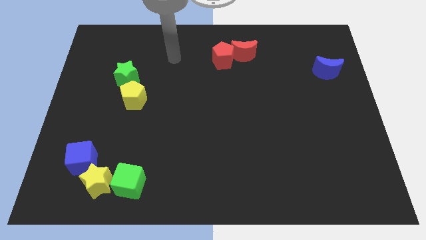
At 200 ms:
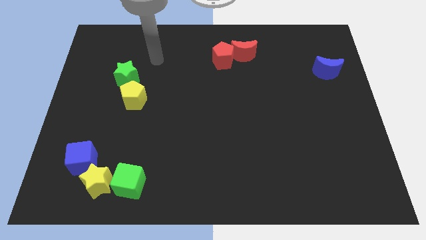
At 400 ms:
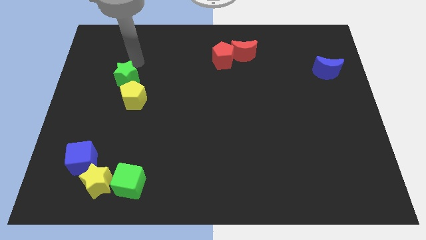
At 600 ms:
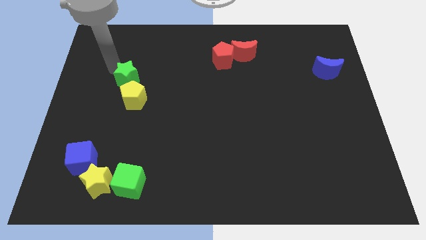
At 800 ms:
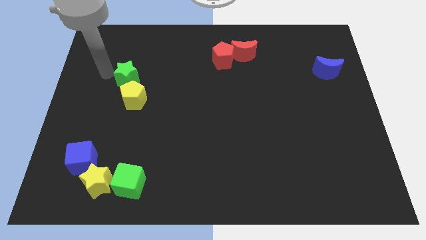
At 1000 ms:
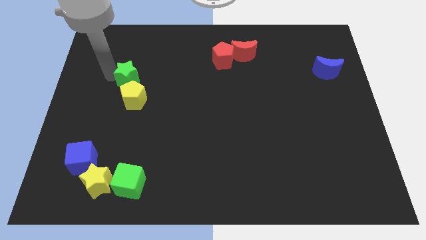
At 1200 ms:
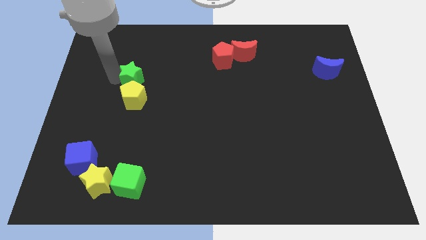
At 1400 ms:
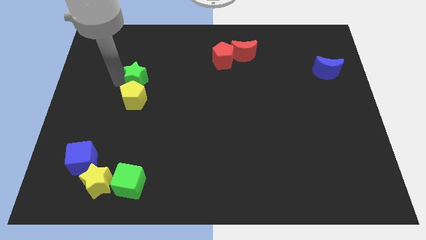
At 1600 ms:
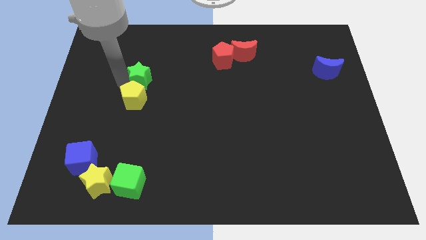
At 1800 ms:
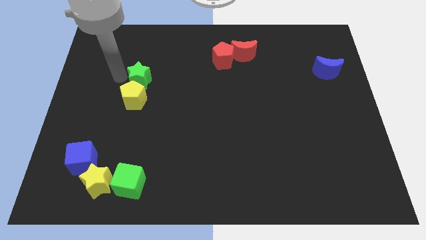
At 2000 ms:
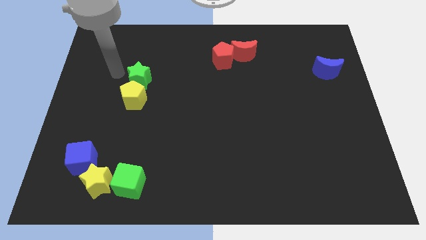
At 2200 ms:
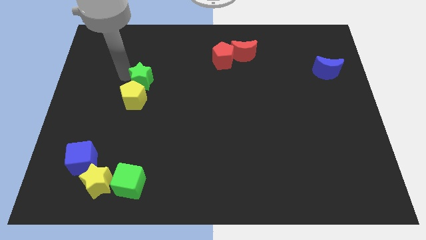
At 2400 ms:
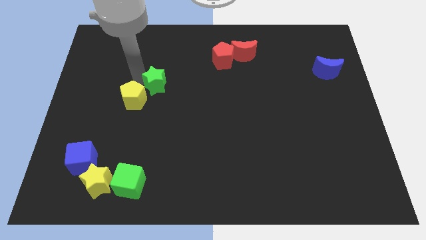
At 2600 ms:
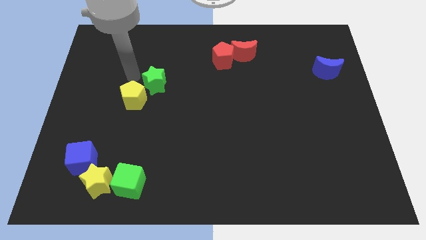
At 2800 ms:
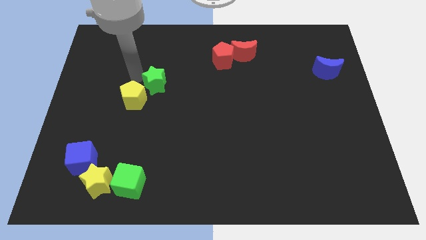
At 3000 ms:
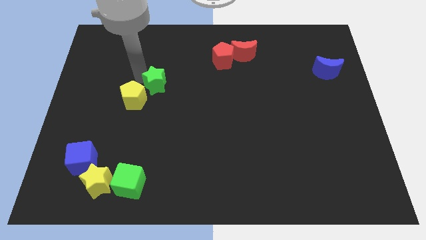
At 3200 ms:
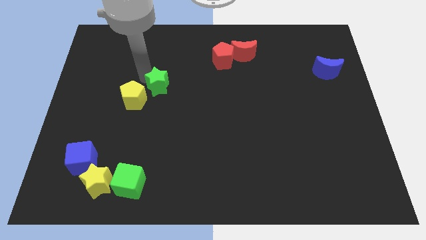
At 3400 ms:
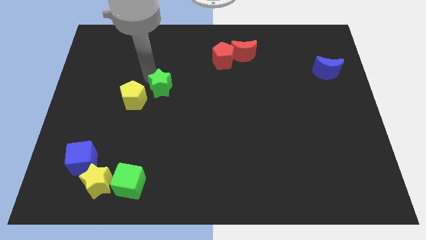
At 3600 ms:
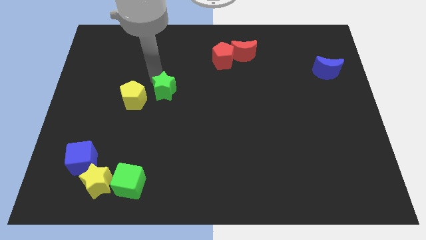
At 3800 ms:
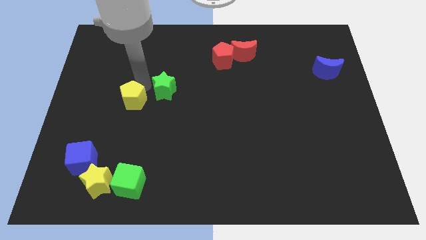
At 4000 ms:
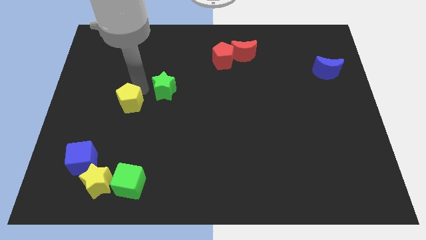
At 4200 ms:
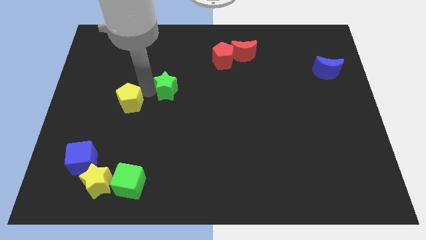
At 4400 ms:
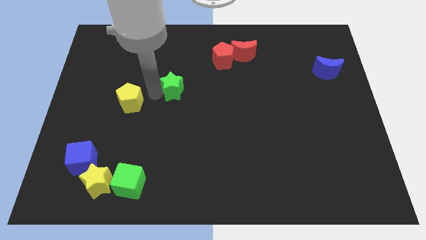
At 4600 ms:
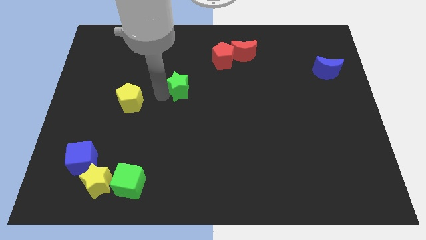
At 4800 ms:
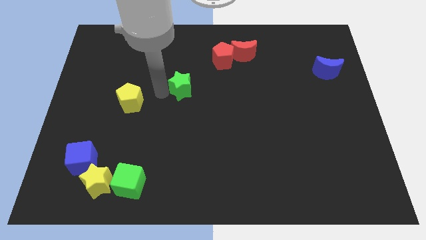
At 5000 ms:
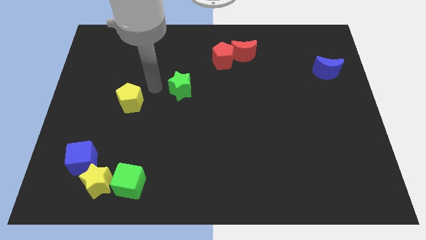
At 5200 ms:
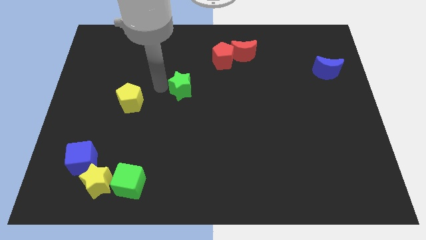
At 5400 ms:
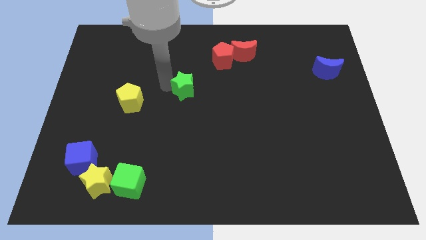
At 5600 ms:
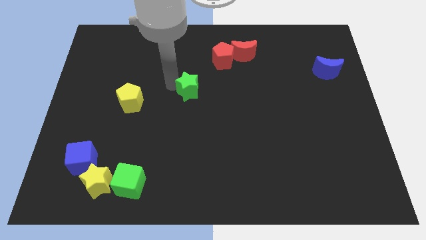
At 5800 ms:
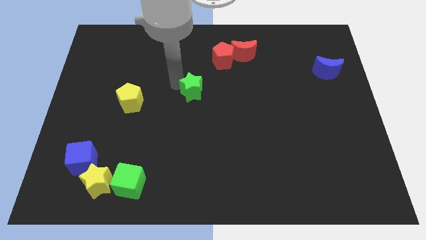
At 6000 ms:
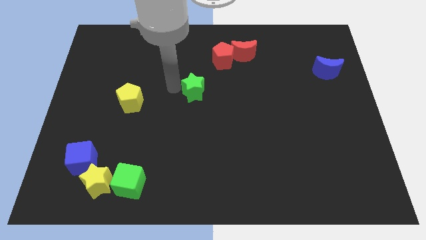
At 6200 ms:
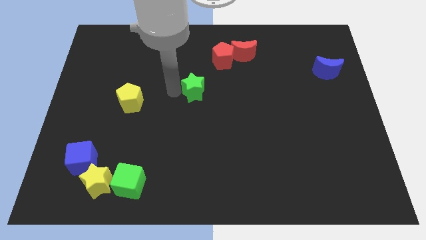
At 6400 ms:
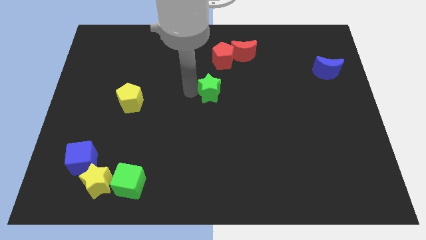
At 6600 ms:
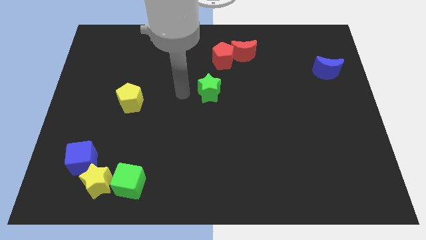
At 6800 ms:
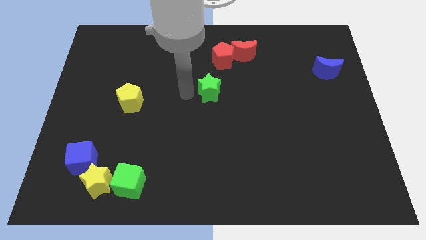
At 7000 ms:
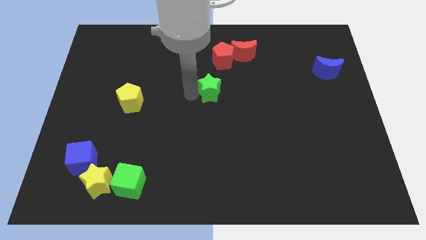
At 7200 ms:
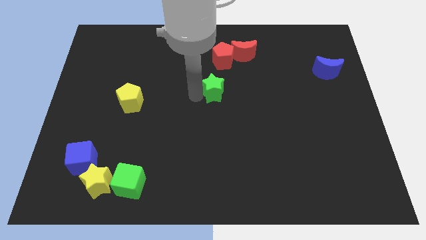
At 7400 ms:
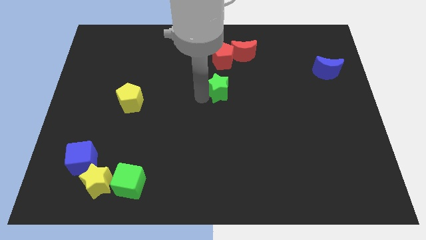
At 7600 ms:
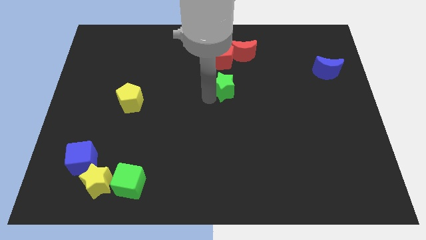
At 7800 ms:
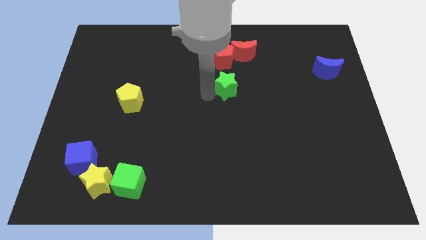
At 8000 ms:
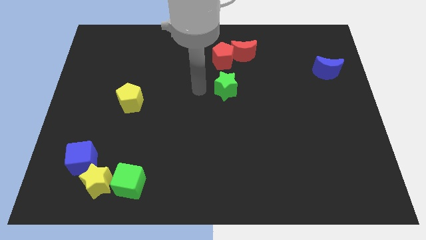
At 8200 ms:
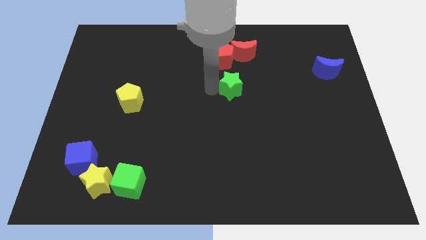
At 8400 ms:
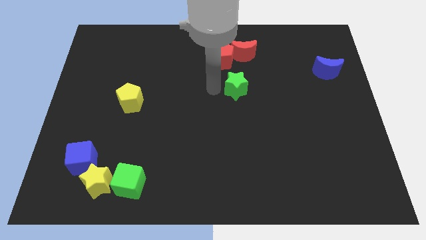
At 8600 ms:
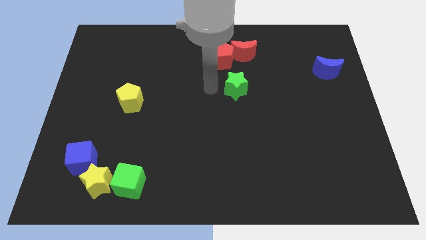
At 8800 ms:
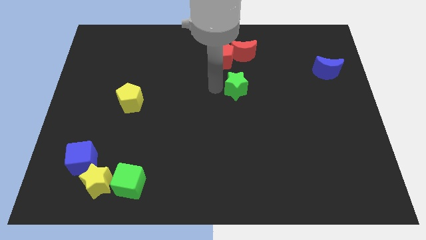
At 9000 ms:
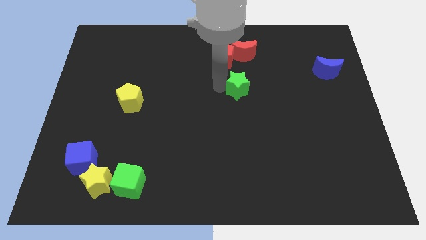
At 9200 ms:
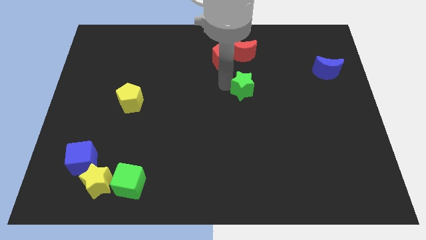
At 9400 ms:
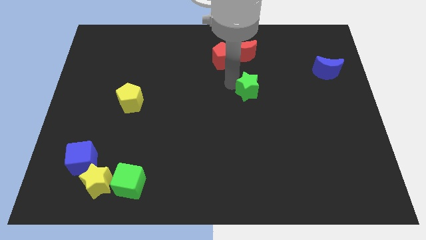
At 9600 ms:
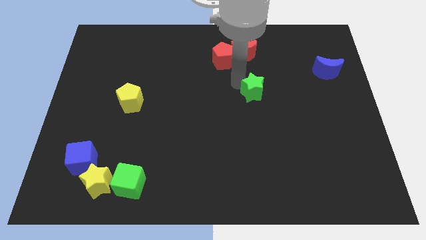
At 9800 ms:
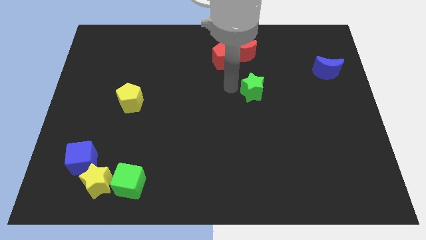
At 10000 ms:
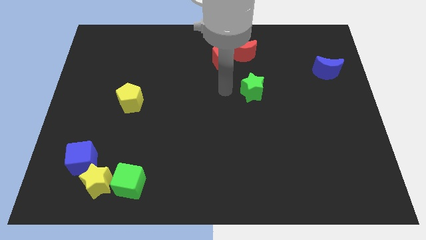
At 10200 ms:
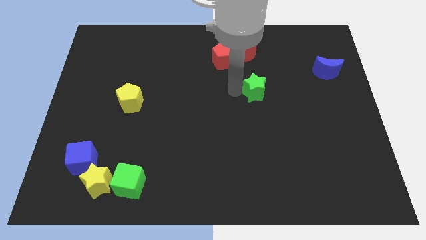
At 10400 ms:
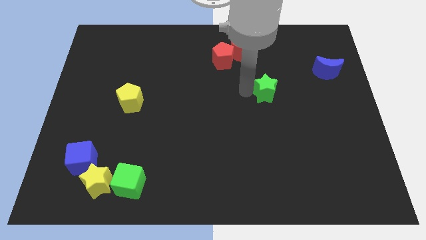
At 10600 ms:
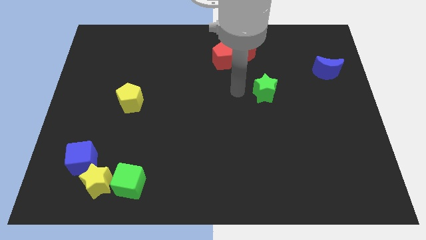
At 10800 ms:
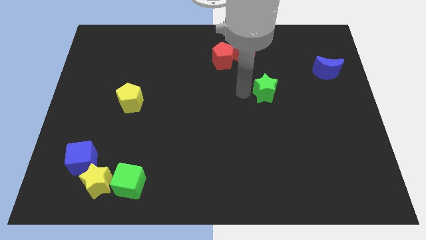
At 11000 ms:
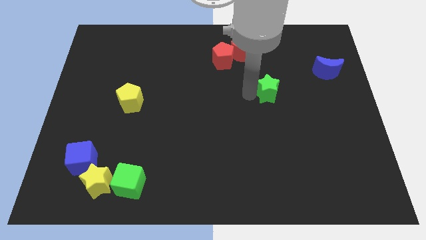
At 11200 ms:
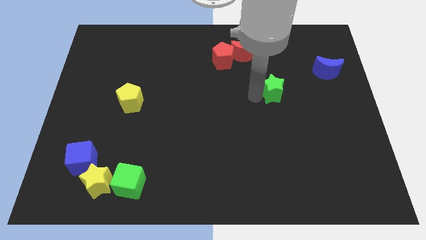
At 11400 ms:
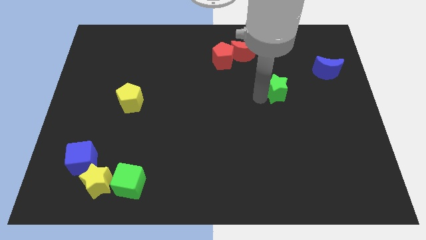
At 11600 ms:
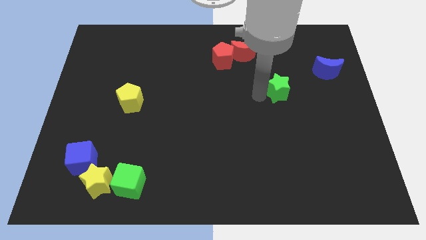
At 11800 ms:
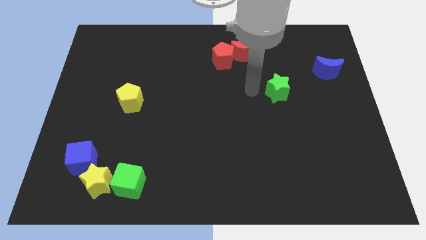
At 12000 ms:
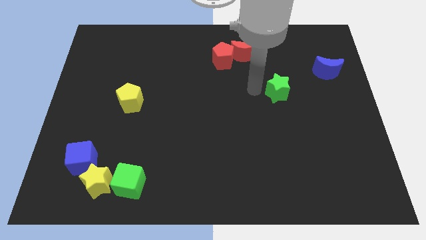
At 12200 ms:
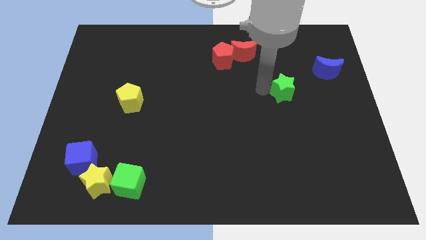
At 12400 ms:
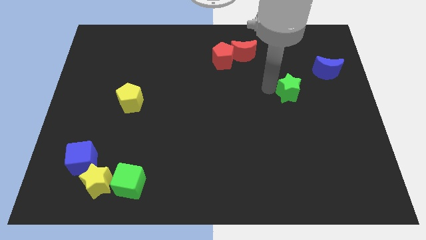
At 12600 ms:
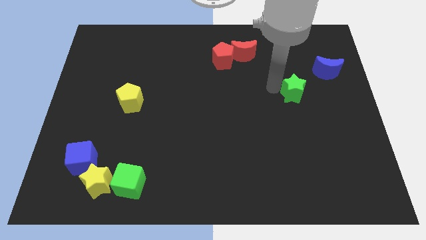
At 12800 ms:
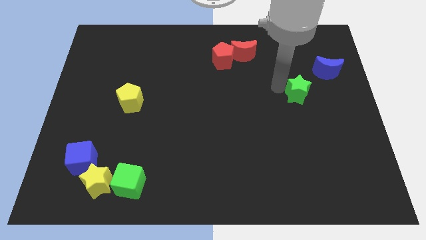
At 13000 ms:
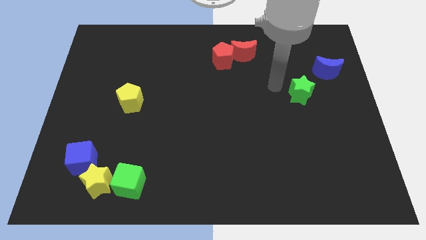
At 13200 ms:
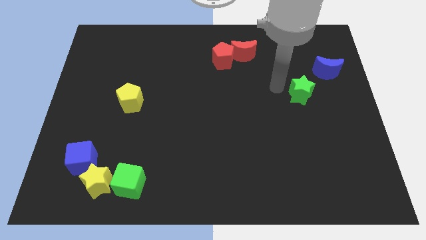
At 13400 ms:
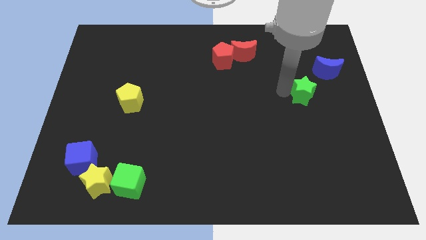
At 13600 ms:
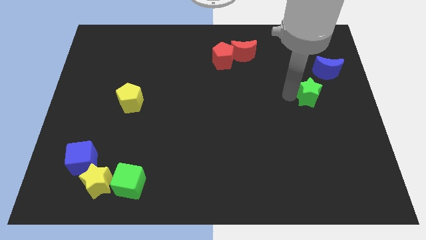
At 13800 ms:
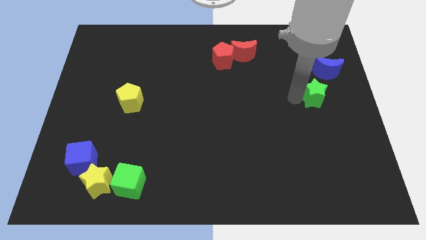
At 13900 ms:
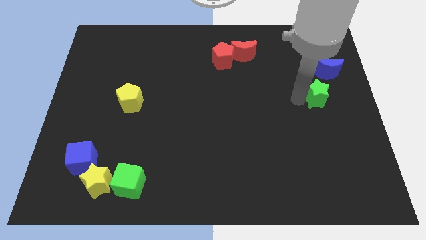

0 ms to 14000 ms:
move the green star below the blue moon
